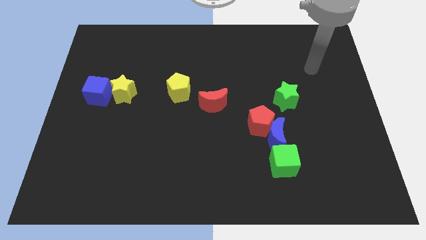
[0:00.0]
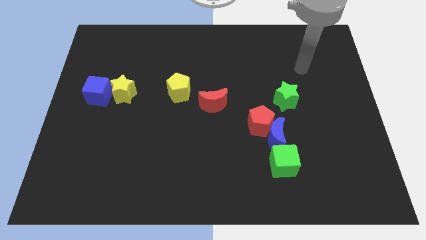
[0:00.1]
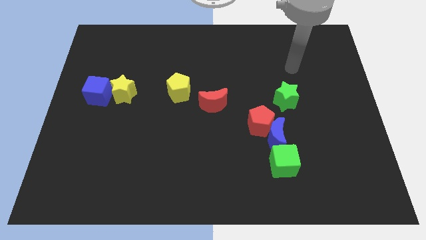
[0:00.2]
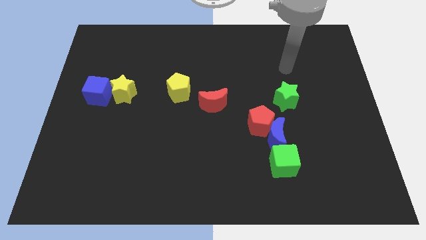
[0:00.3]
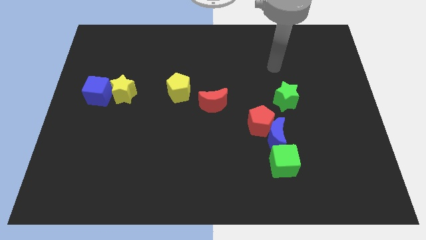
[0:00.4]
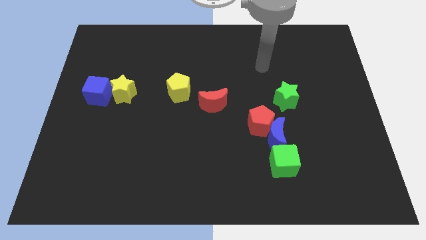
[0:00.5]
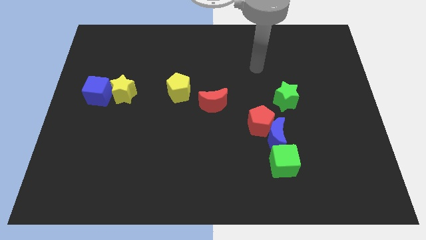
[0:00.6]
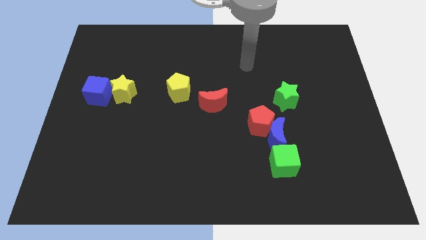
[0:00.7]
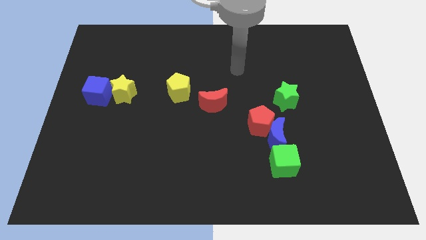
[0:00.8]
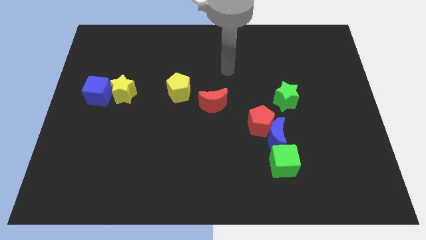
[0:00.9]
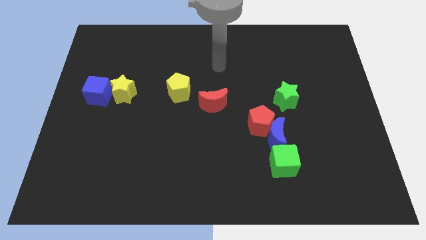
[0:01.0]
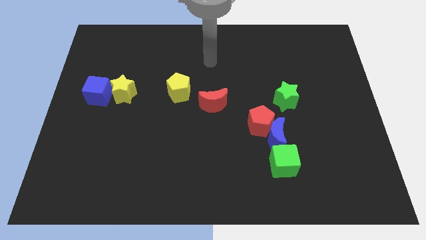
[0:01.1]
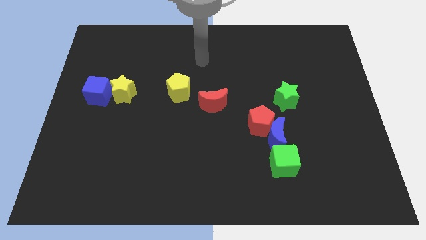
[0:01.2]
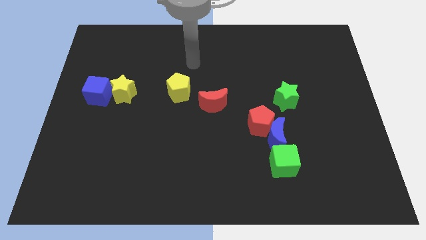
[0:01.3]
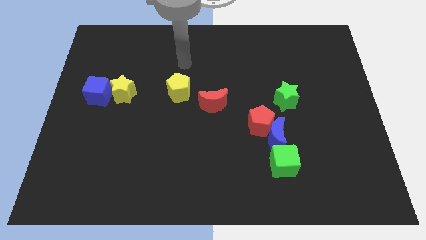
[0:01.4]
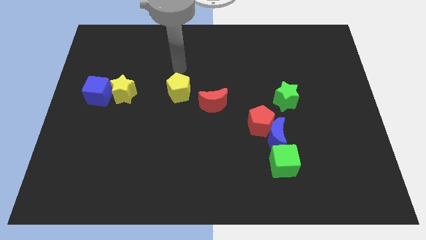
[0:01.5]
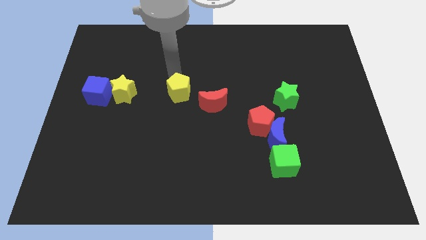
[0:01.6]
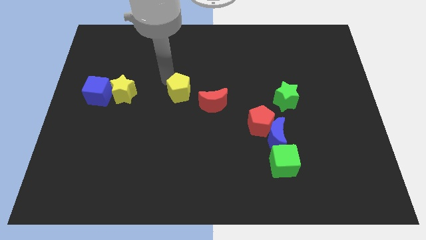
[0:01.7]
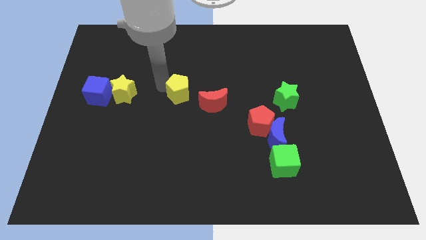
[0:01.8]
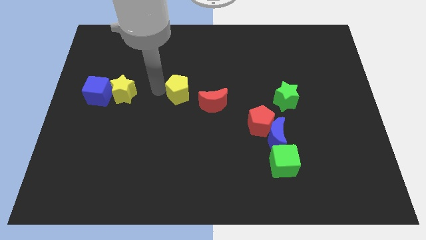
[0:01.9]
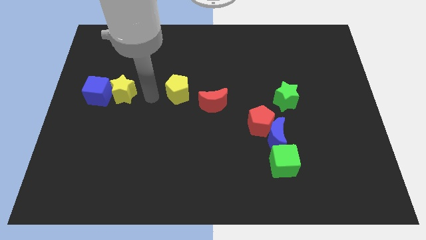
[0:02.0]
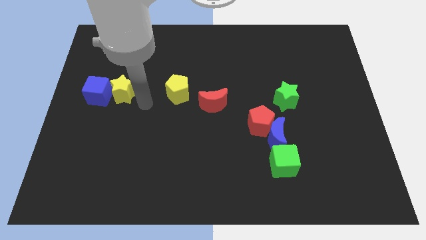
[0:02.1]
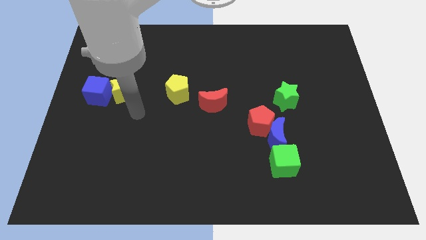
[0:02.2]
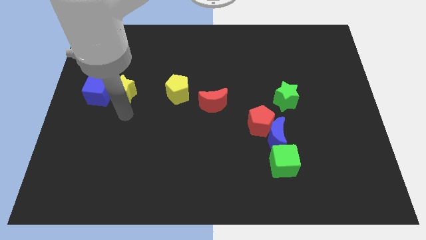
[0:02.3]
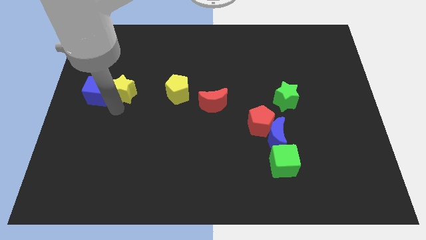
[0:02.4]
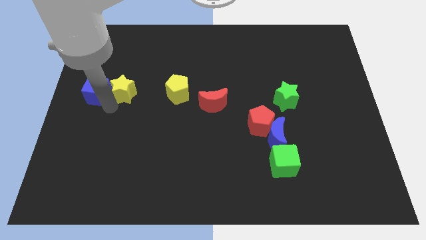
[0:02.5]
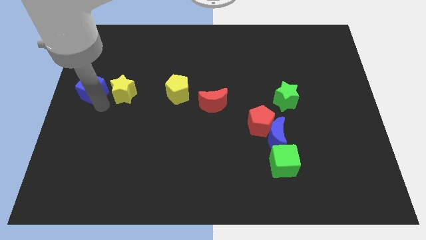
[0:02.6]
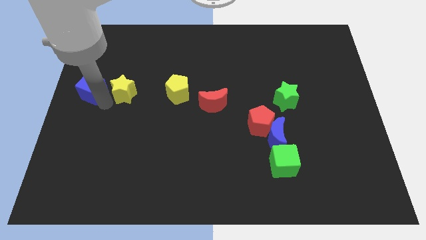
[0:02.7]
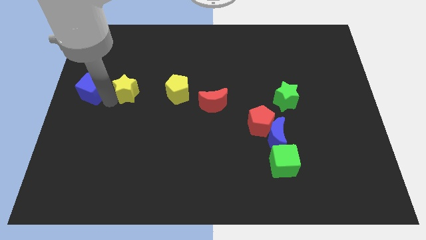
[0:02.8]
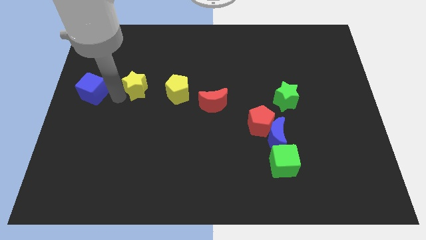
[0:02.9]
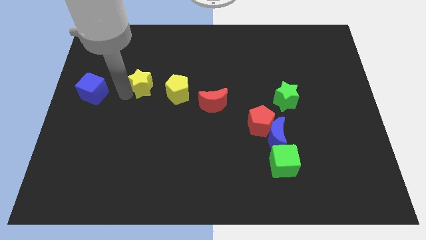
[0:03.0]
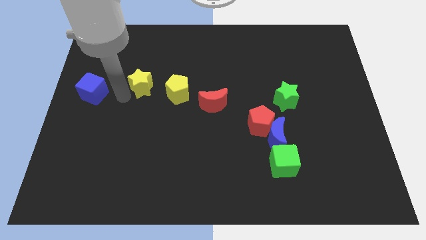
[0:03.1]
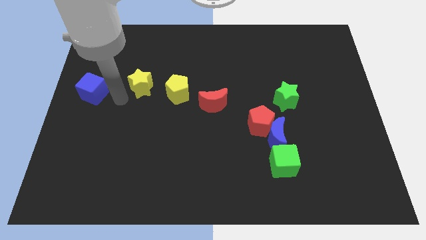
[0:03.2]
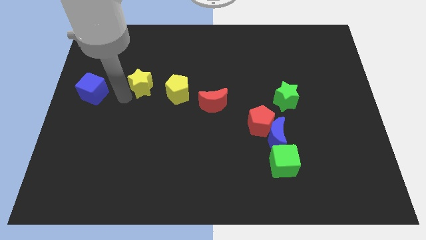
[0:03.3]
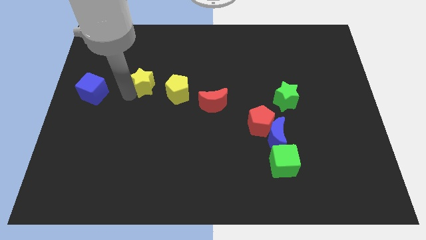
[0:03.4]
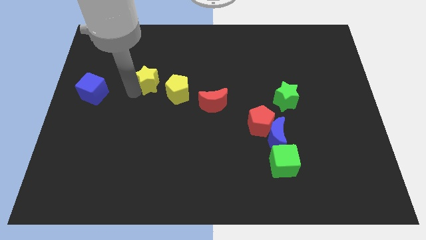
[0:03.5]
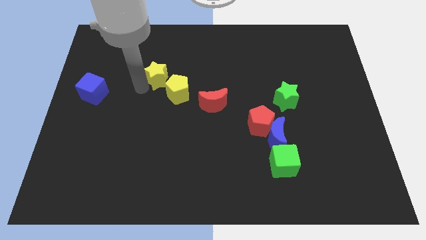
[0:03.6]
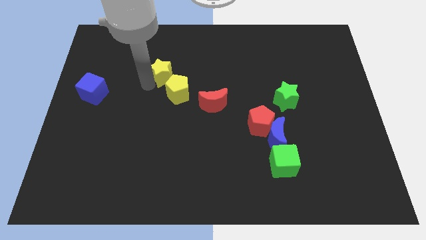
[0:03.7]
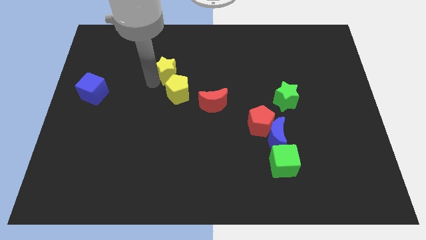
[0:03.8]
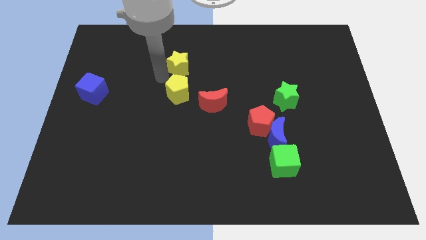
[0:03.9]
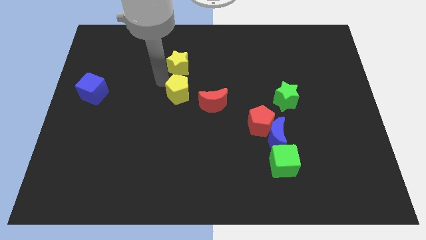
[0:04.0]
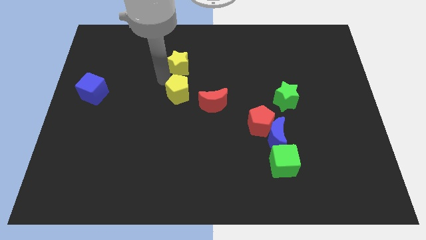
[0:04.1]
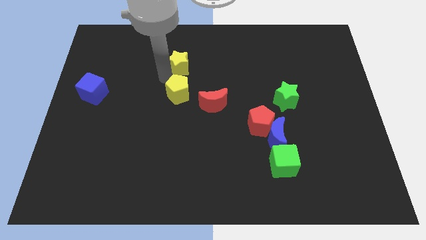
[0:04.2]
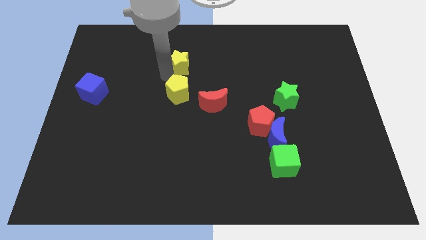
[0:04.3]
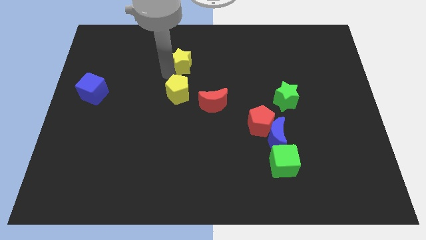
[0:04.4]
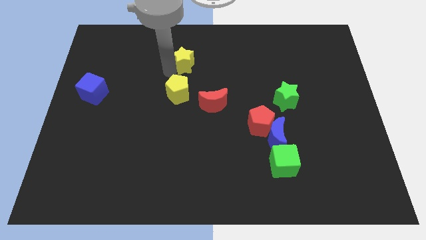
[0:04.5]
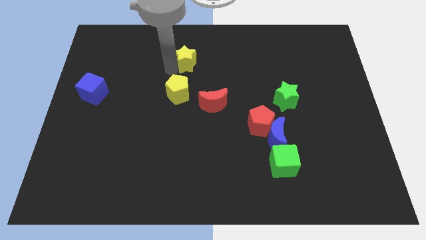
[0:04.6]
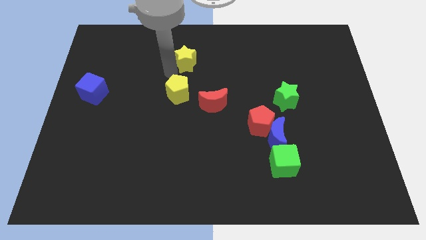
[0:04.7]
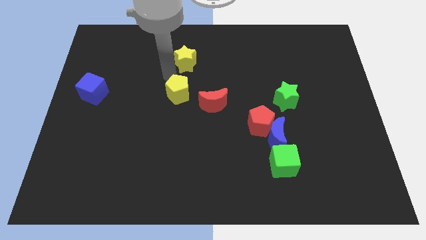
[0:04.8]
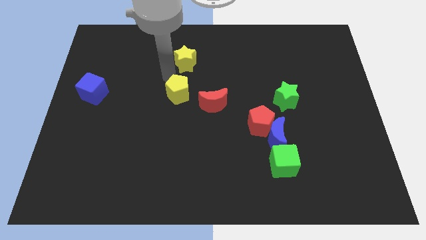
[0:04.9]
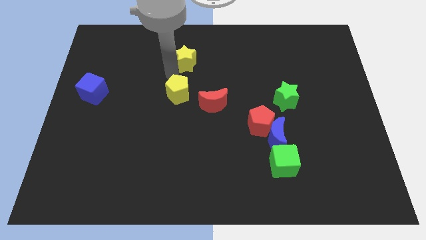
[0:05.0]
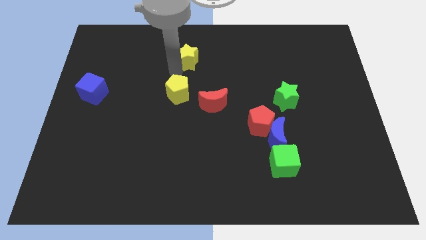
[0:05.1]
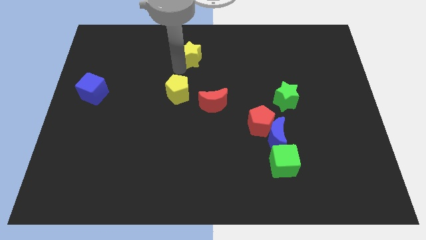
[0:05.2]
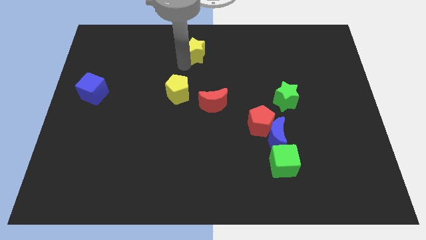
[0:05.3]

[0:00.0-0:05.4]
put the yellow star to the top

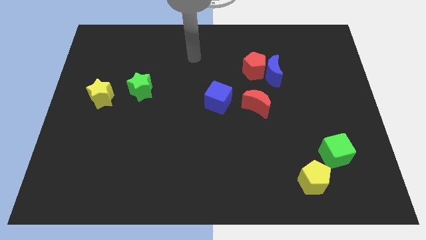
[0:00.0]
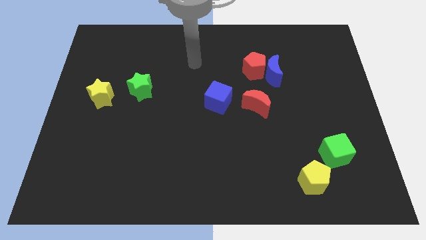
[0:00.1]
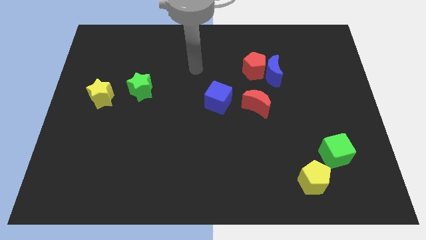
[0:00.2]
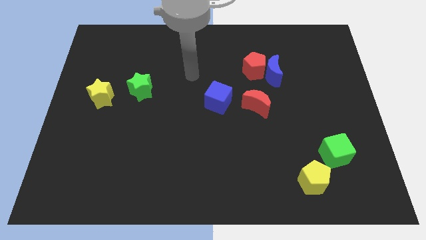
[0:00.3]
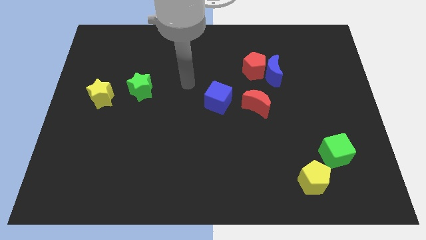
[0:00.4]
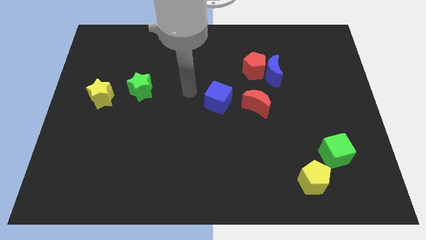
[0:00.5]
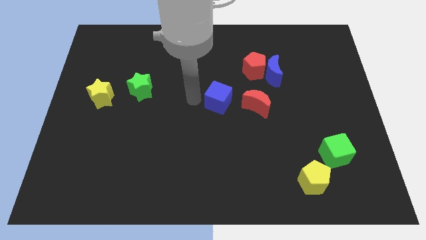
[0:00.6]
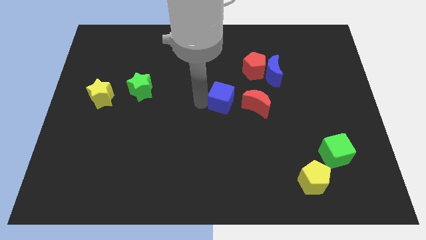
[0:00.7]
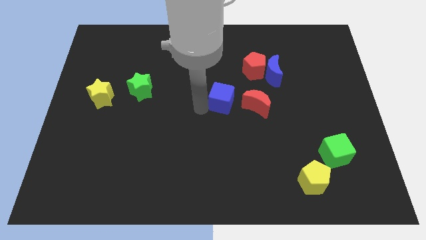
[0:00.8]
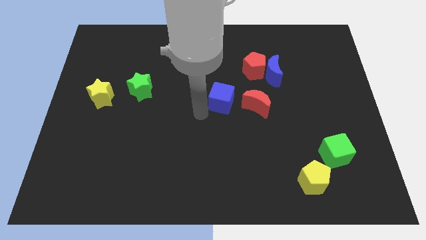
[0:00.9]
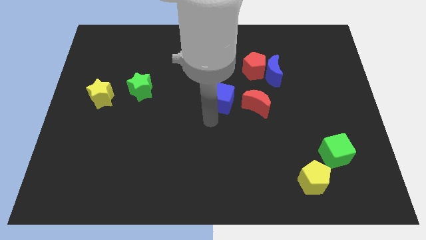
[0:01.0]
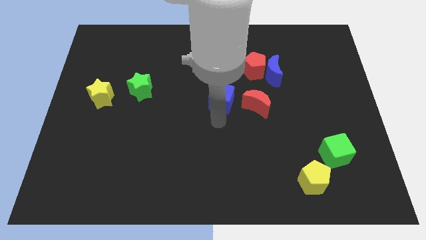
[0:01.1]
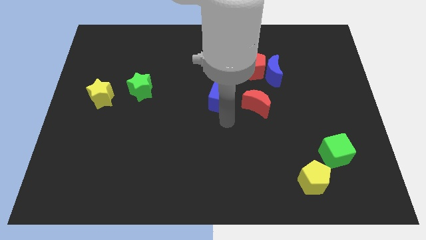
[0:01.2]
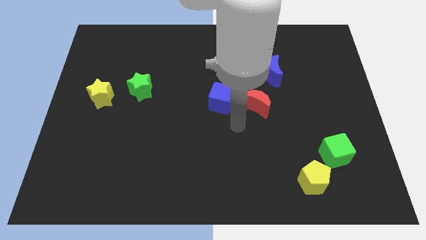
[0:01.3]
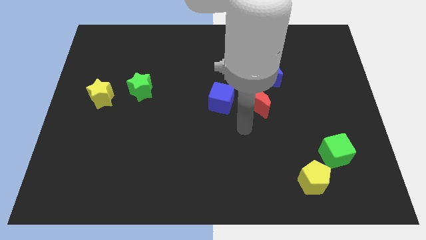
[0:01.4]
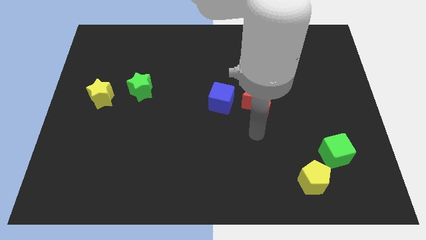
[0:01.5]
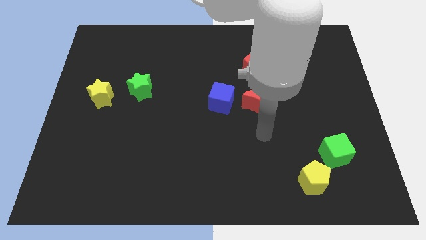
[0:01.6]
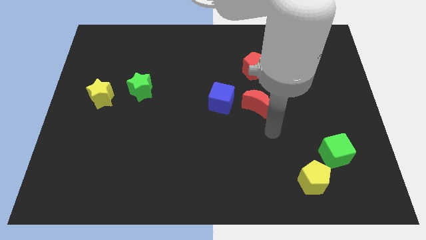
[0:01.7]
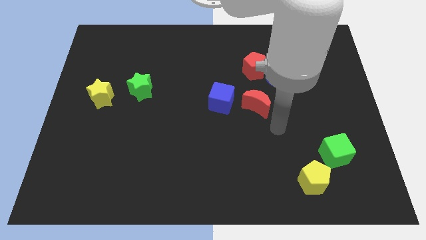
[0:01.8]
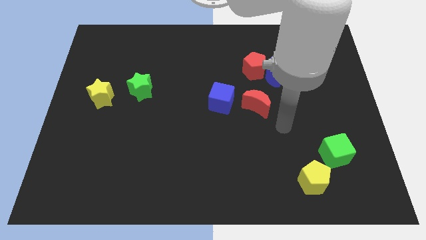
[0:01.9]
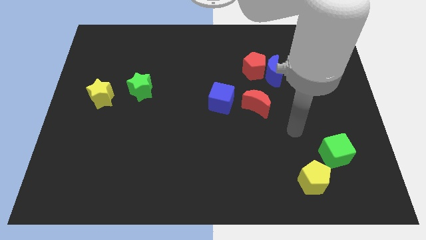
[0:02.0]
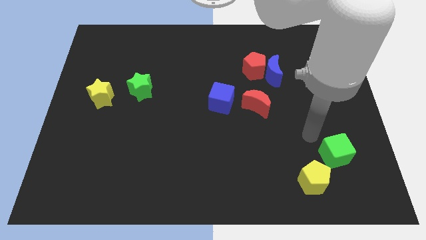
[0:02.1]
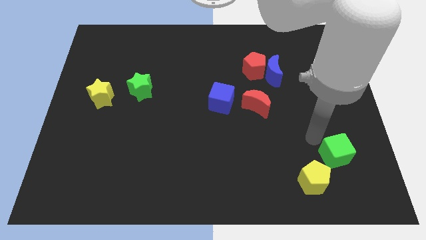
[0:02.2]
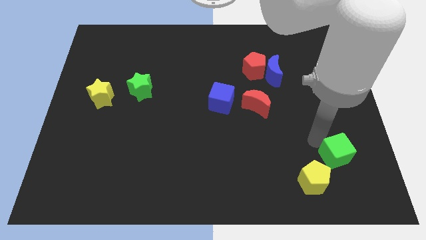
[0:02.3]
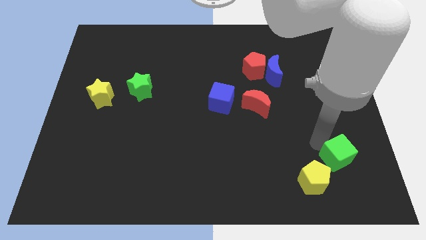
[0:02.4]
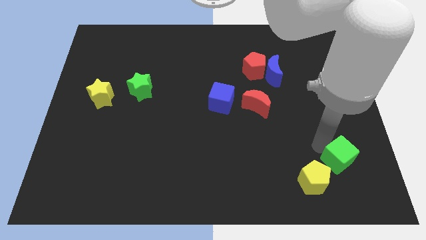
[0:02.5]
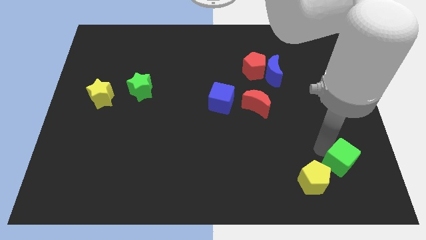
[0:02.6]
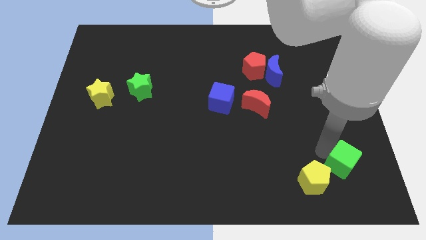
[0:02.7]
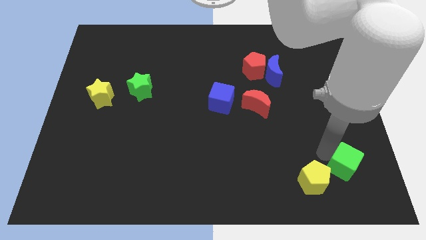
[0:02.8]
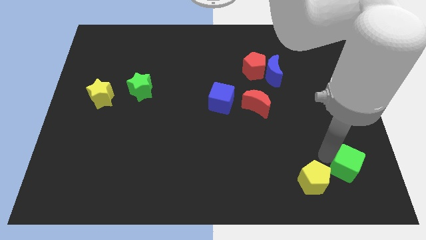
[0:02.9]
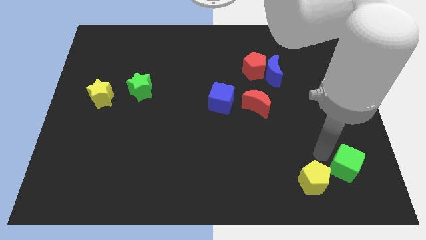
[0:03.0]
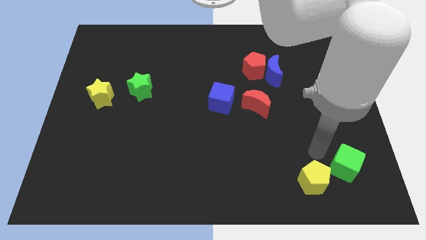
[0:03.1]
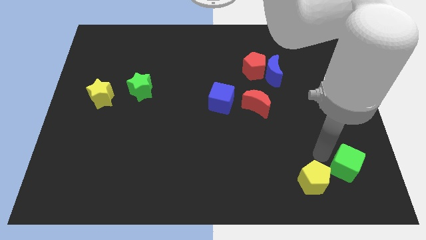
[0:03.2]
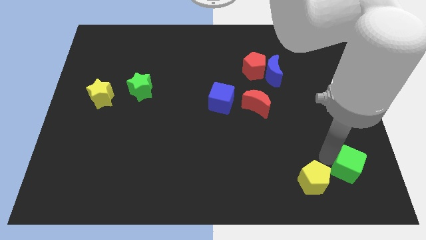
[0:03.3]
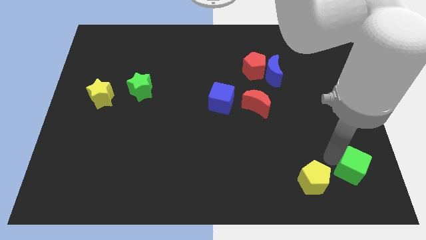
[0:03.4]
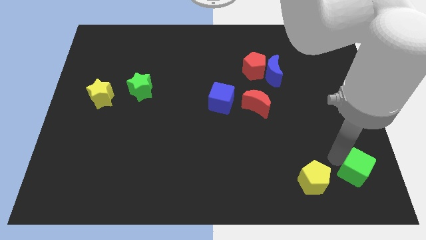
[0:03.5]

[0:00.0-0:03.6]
push the green cube to the bottom right corner
